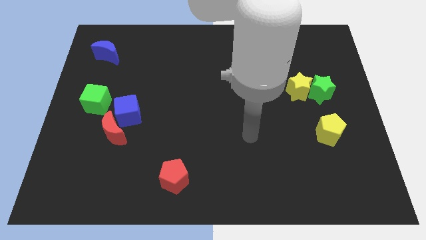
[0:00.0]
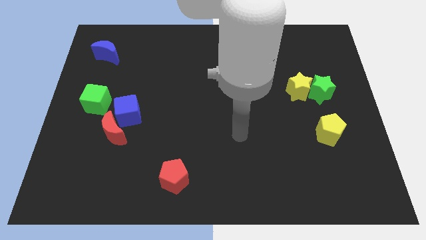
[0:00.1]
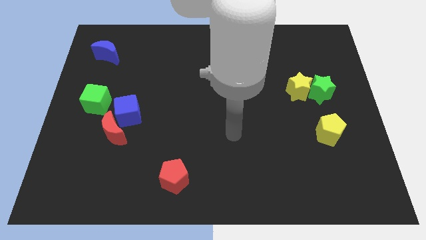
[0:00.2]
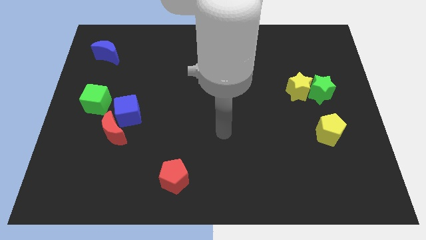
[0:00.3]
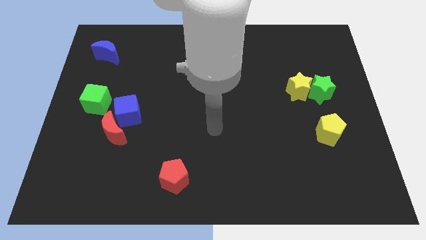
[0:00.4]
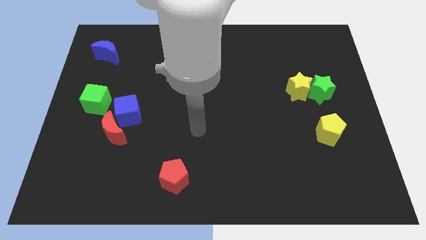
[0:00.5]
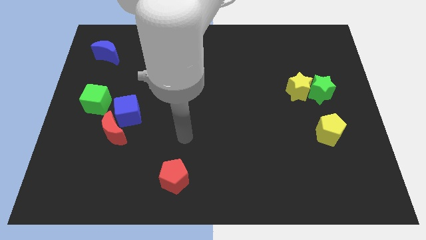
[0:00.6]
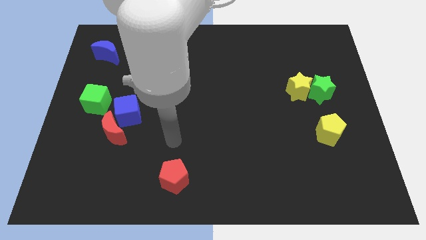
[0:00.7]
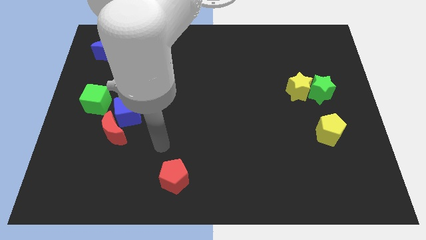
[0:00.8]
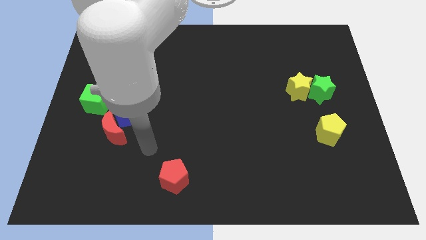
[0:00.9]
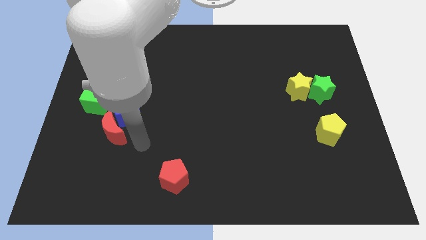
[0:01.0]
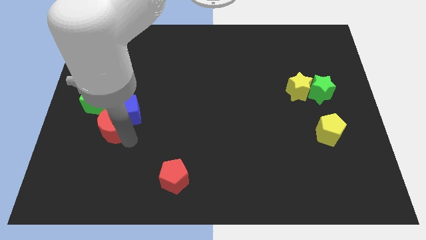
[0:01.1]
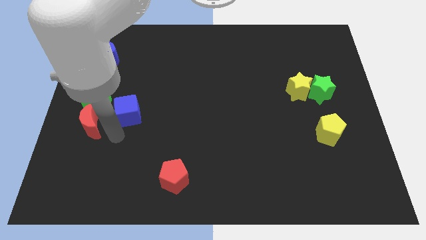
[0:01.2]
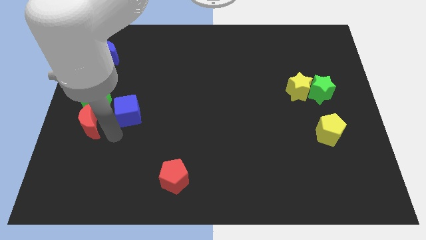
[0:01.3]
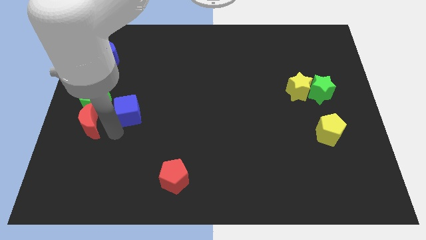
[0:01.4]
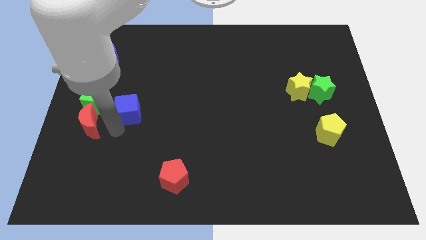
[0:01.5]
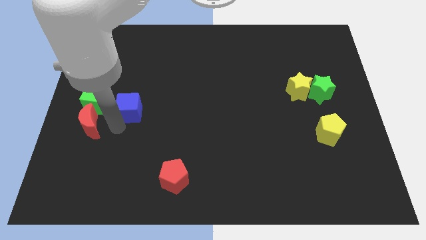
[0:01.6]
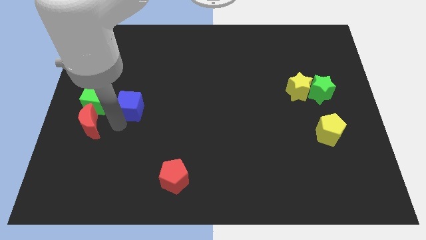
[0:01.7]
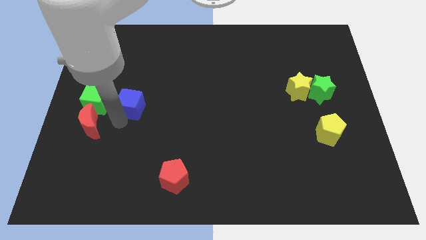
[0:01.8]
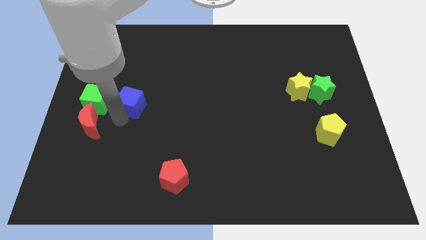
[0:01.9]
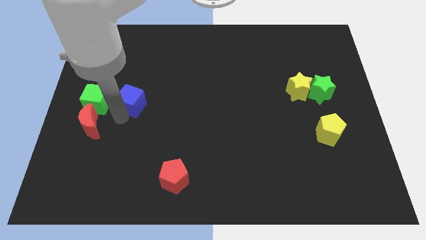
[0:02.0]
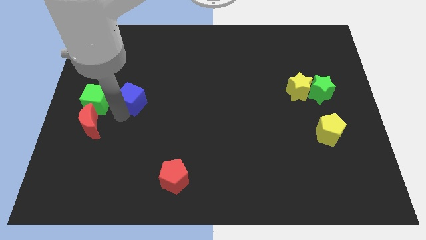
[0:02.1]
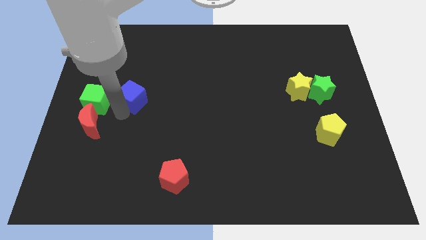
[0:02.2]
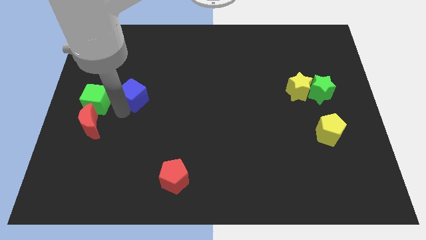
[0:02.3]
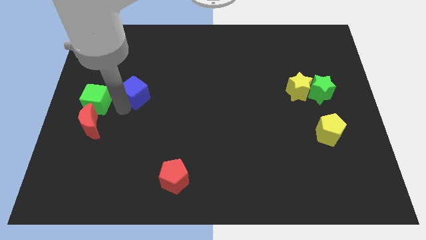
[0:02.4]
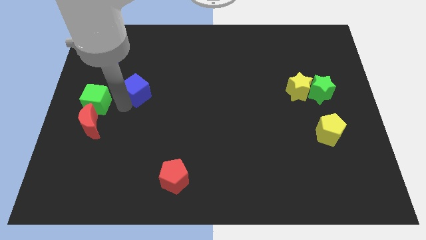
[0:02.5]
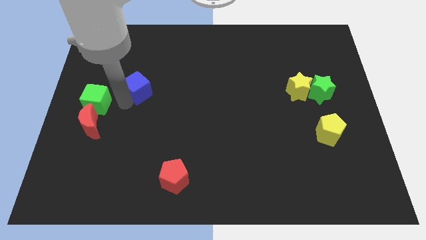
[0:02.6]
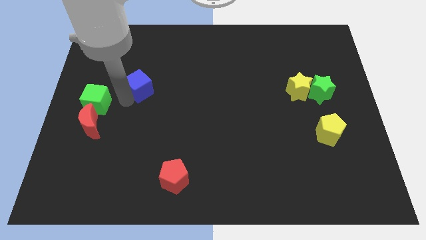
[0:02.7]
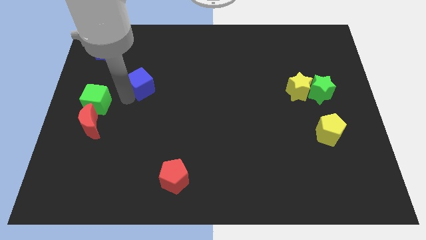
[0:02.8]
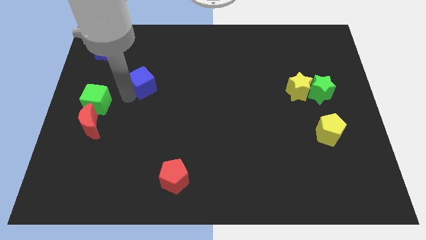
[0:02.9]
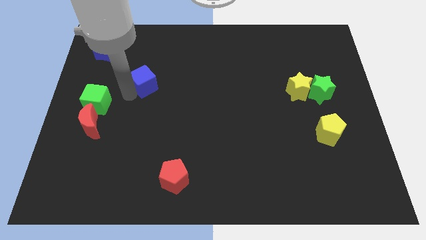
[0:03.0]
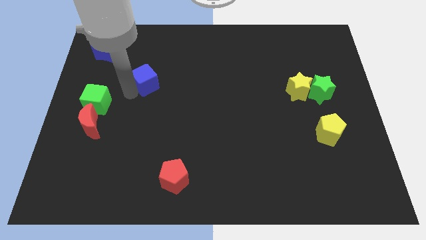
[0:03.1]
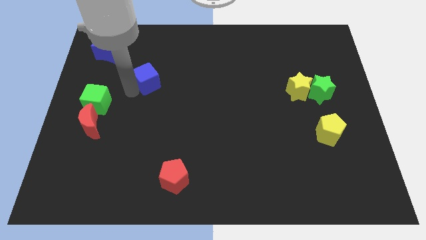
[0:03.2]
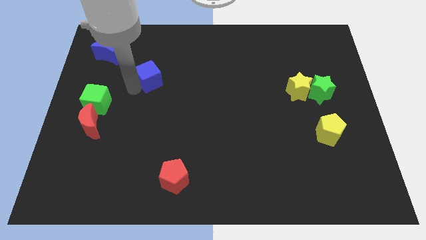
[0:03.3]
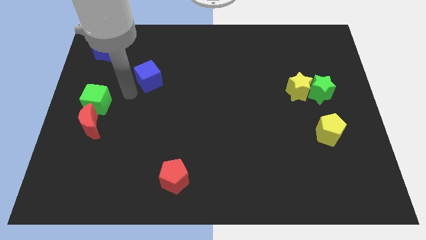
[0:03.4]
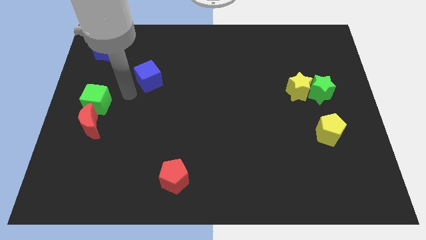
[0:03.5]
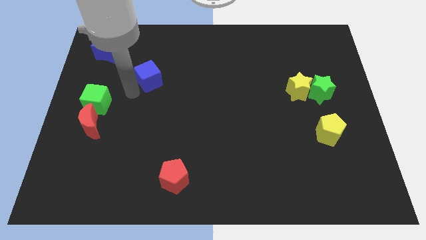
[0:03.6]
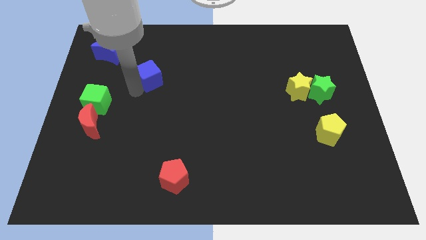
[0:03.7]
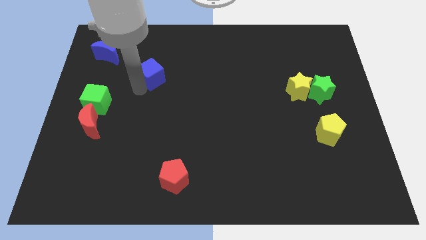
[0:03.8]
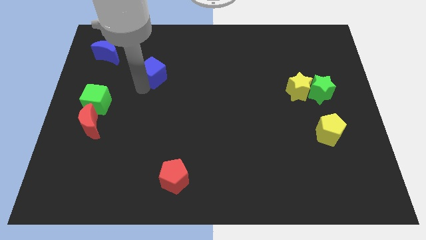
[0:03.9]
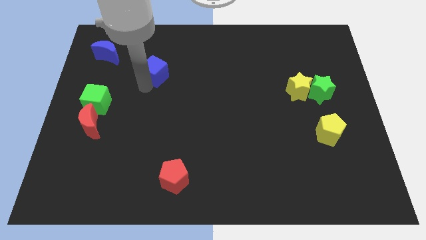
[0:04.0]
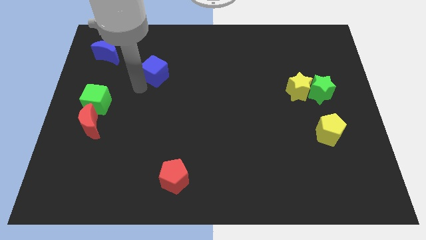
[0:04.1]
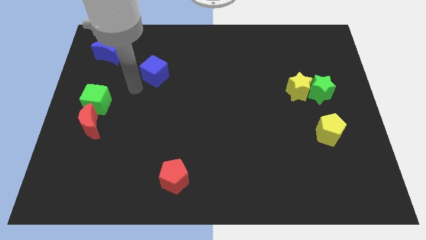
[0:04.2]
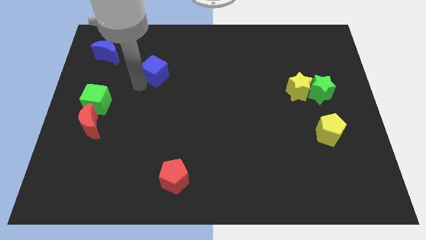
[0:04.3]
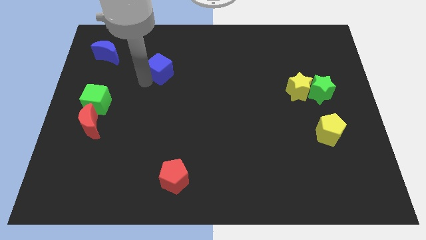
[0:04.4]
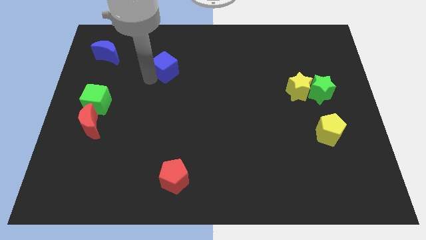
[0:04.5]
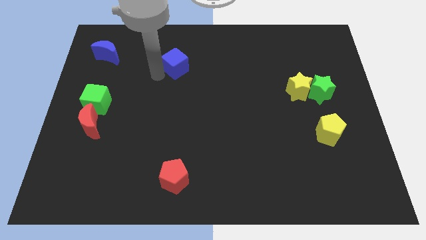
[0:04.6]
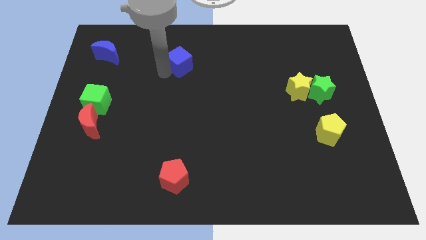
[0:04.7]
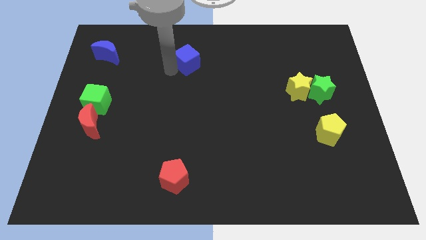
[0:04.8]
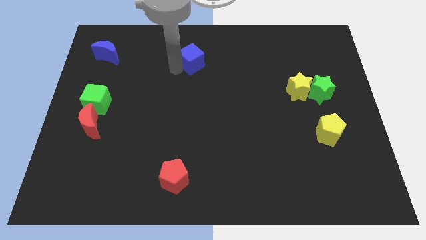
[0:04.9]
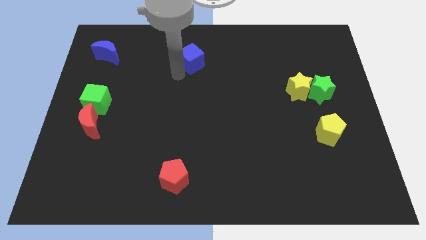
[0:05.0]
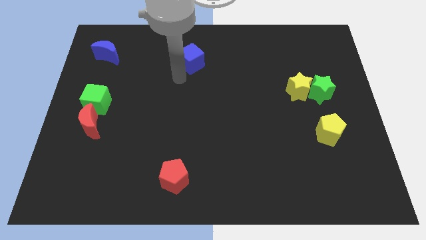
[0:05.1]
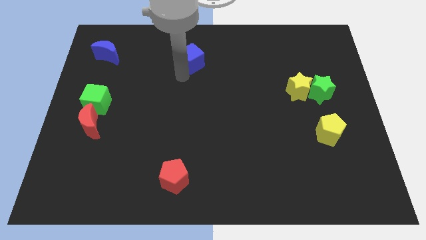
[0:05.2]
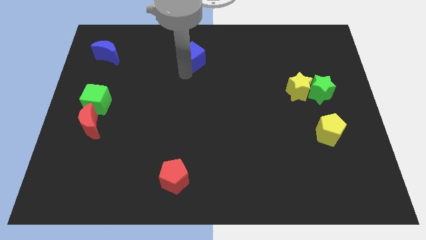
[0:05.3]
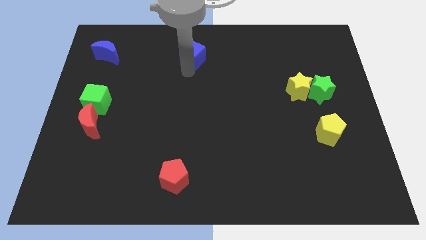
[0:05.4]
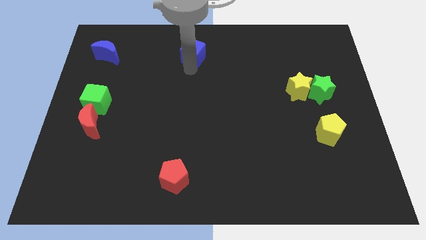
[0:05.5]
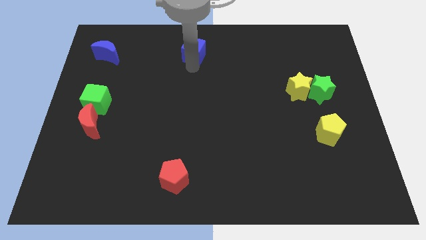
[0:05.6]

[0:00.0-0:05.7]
move the blue cube to the top
